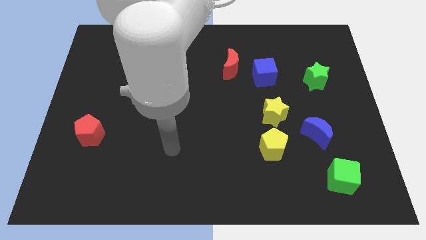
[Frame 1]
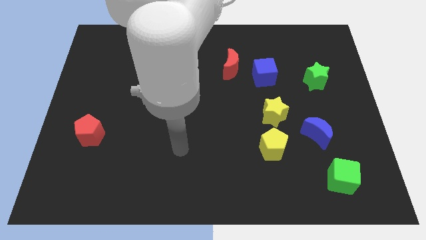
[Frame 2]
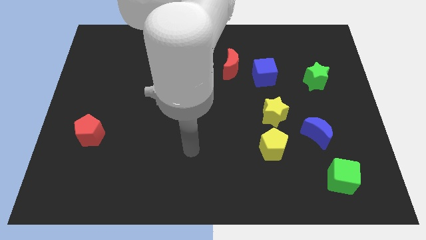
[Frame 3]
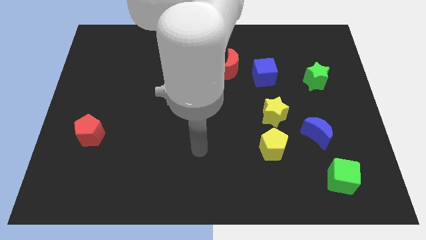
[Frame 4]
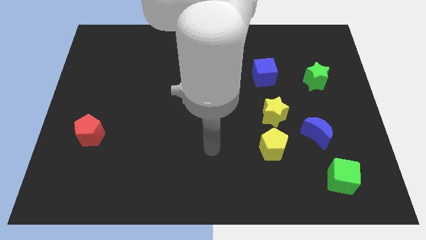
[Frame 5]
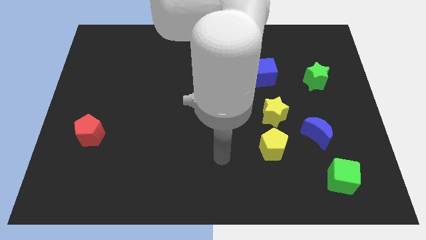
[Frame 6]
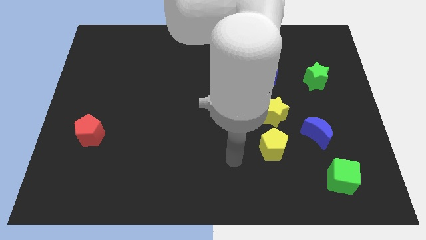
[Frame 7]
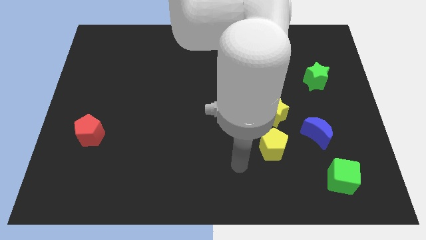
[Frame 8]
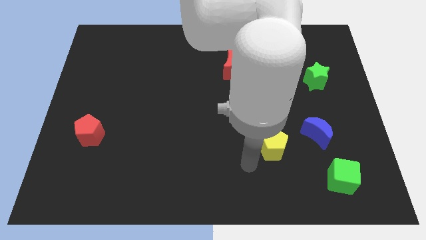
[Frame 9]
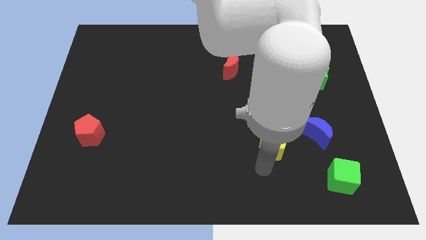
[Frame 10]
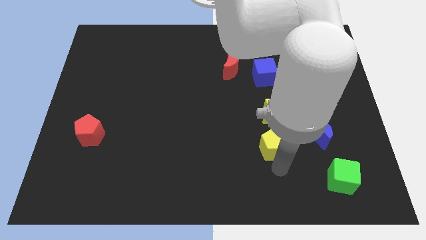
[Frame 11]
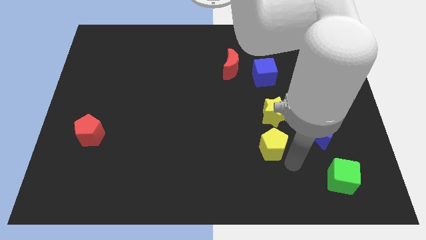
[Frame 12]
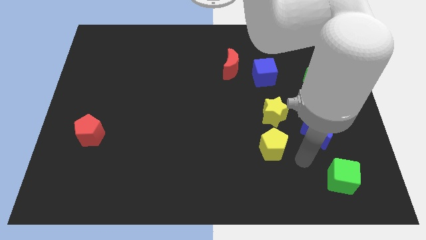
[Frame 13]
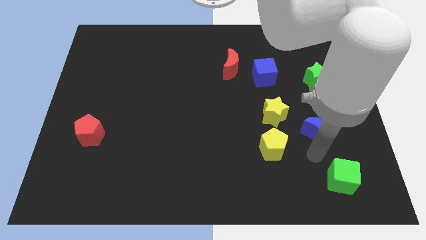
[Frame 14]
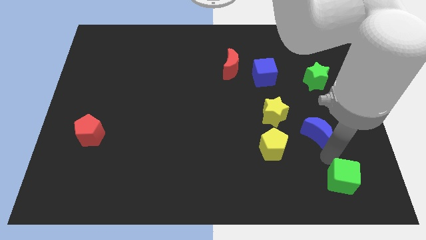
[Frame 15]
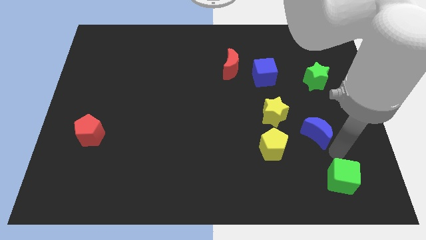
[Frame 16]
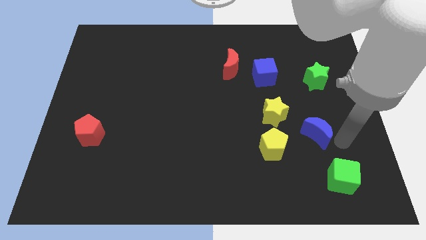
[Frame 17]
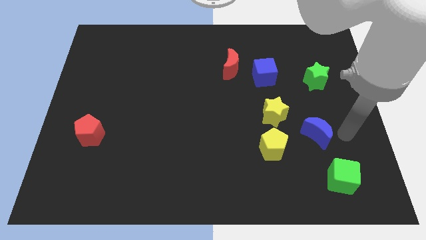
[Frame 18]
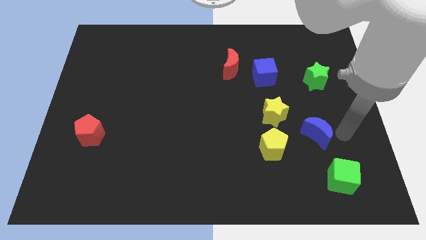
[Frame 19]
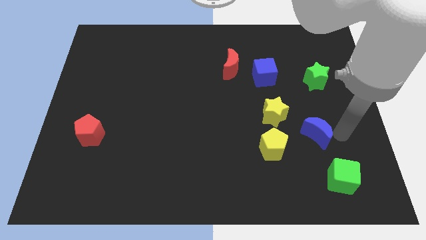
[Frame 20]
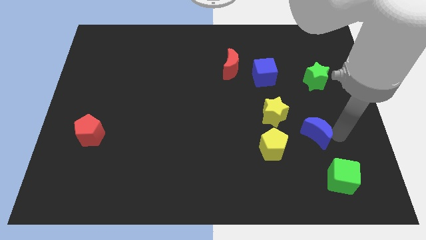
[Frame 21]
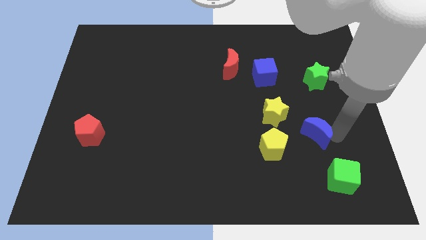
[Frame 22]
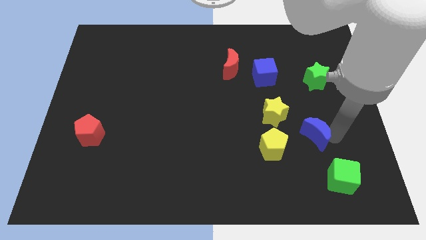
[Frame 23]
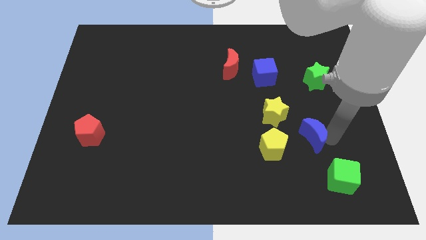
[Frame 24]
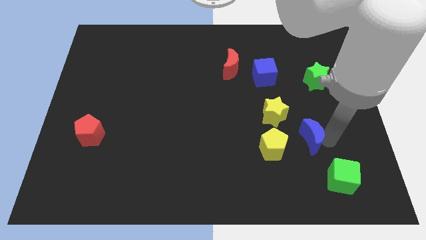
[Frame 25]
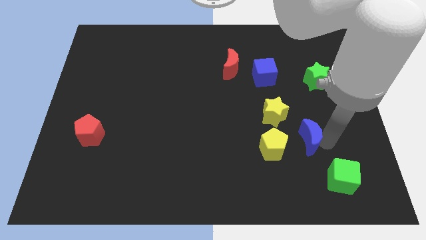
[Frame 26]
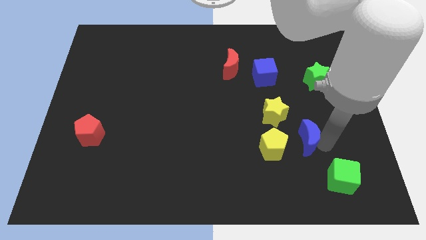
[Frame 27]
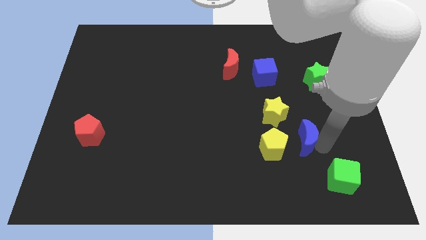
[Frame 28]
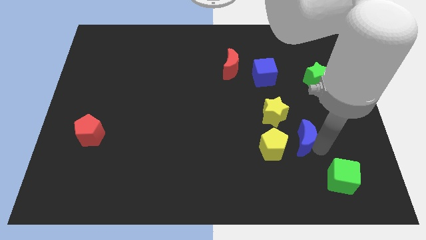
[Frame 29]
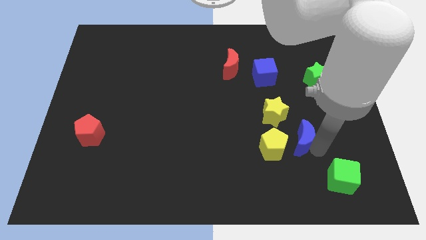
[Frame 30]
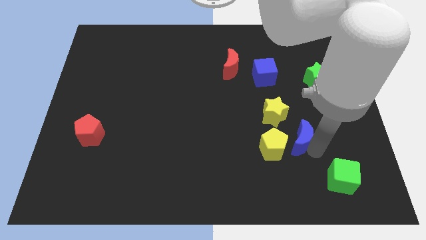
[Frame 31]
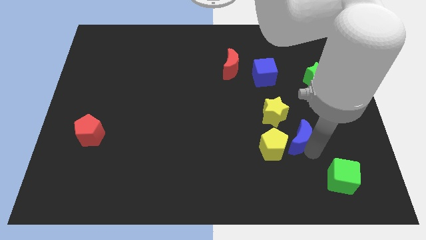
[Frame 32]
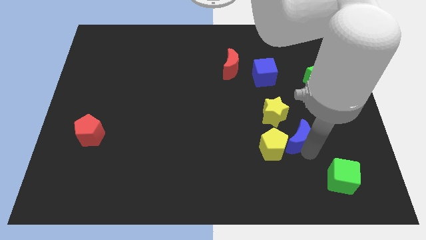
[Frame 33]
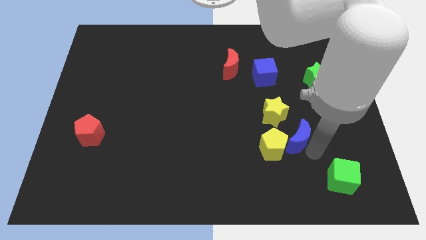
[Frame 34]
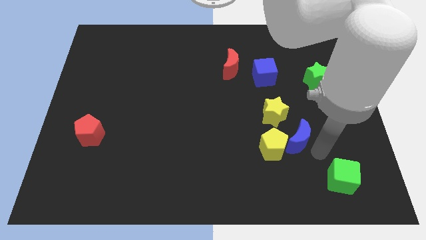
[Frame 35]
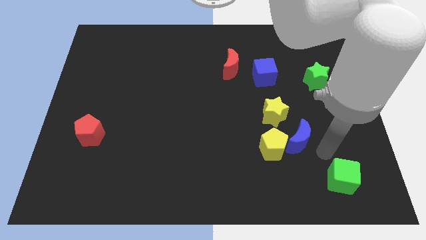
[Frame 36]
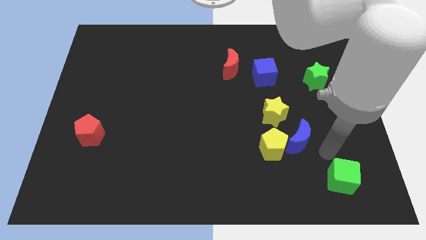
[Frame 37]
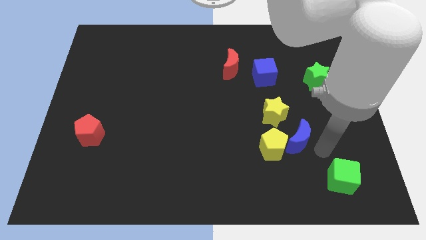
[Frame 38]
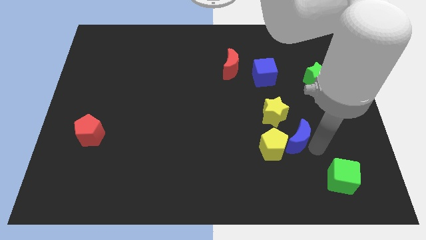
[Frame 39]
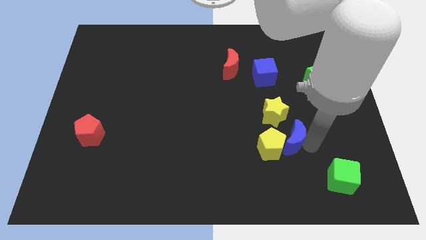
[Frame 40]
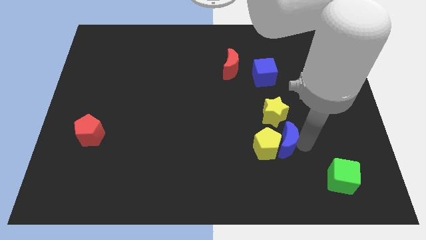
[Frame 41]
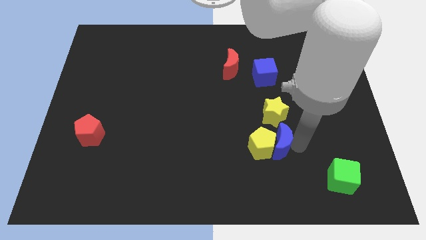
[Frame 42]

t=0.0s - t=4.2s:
move the blue moon slightly to the left

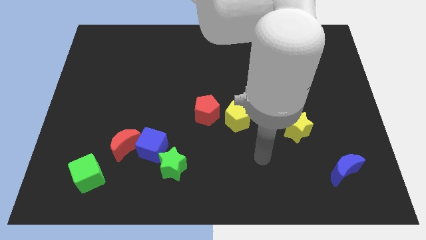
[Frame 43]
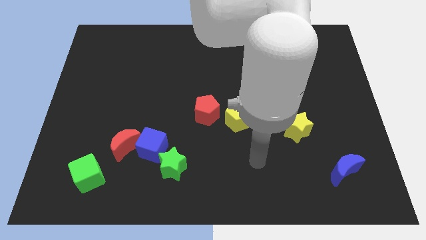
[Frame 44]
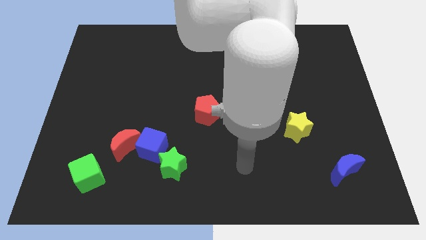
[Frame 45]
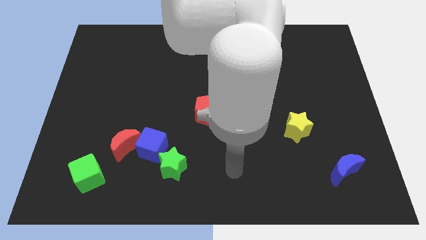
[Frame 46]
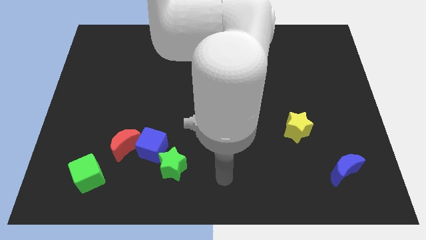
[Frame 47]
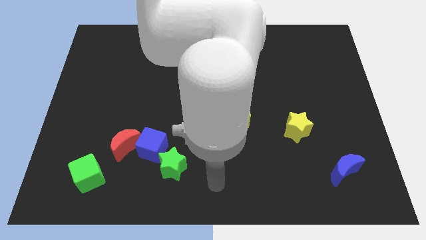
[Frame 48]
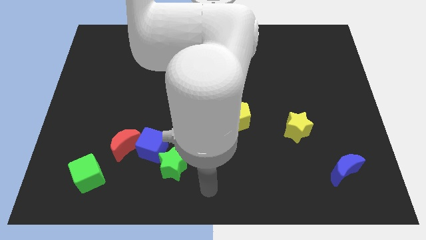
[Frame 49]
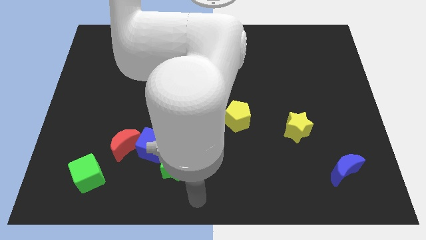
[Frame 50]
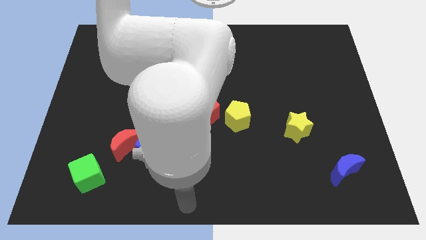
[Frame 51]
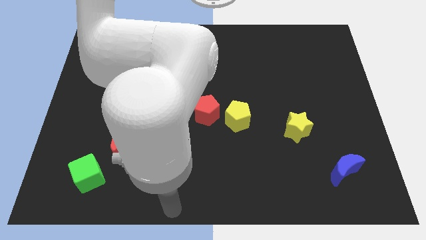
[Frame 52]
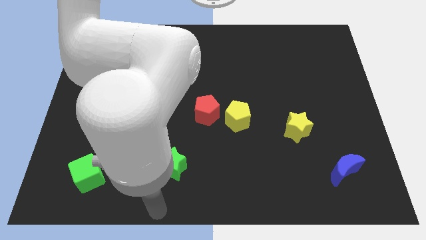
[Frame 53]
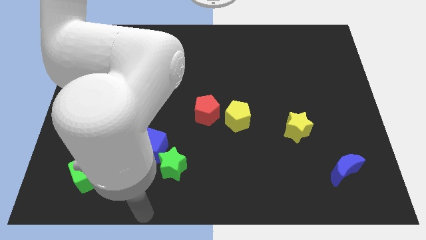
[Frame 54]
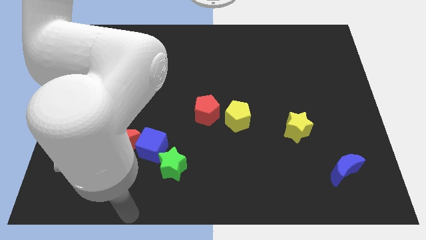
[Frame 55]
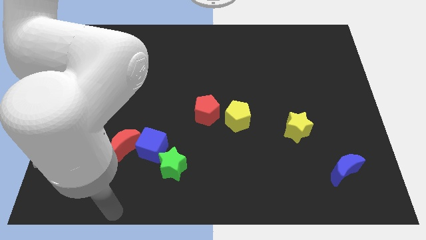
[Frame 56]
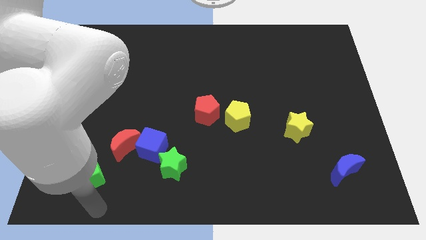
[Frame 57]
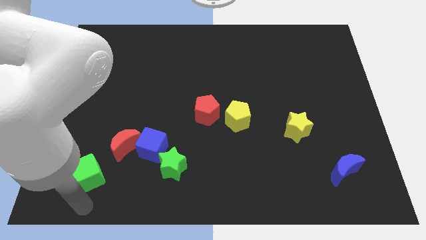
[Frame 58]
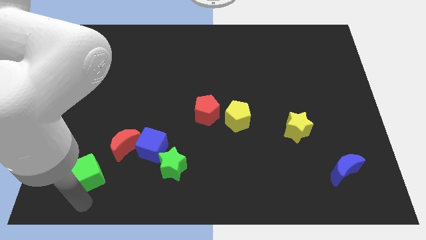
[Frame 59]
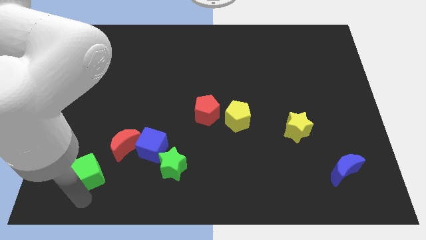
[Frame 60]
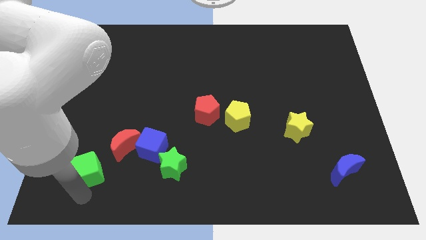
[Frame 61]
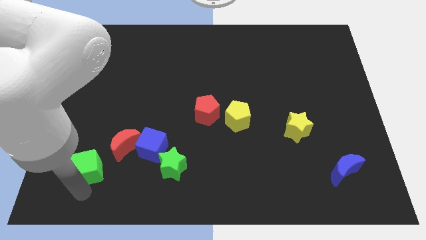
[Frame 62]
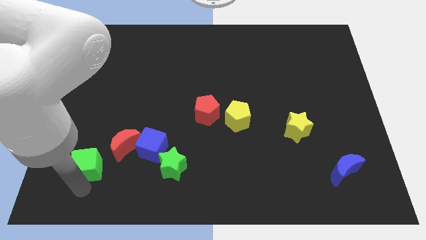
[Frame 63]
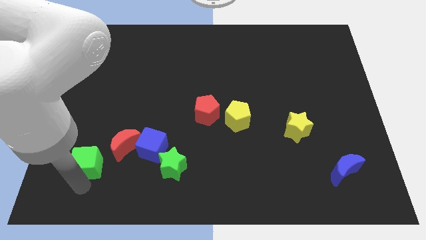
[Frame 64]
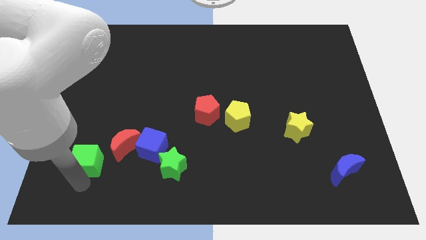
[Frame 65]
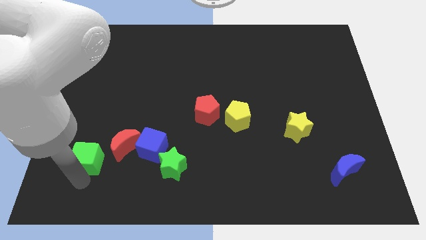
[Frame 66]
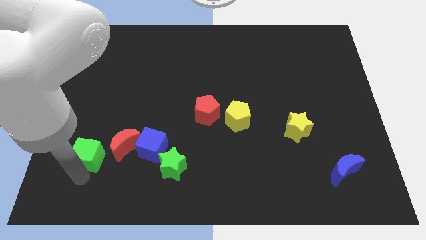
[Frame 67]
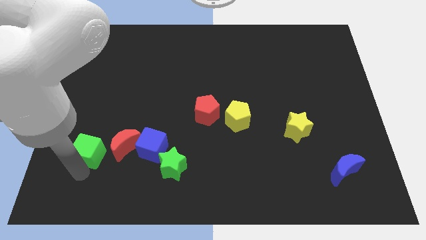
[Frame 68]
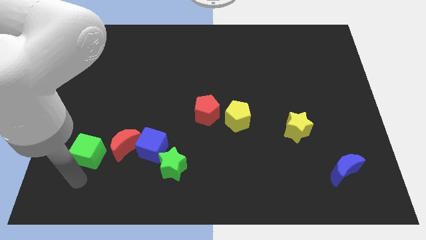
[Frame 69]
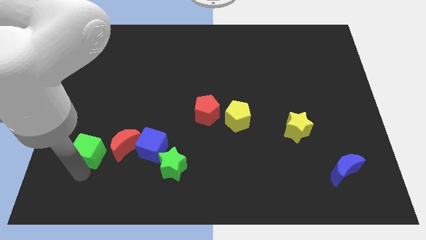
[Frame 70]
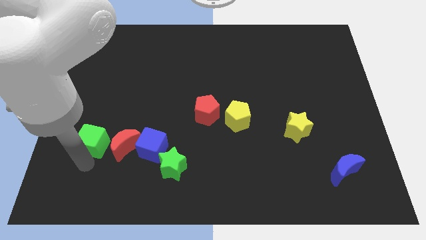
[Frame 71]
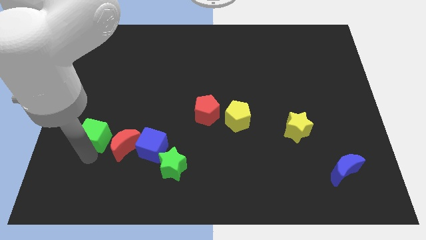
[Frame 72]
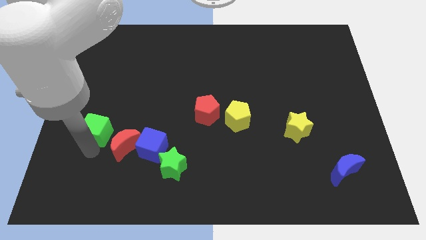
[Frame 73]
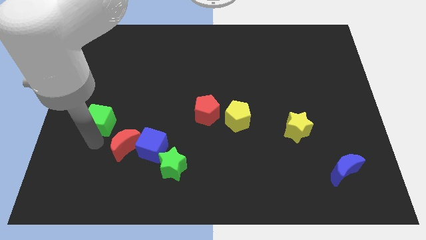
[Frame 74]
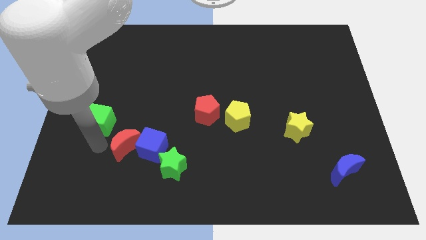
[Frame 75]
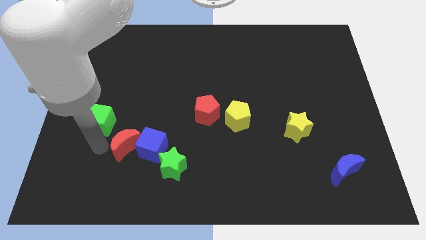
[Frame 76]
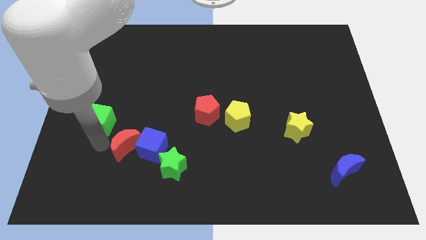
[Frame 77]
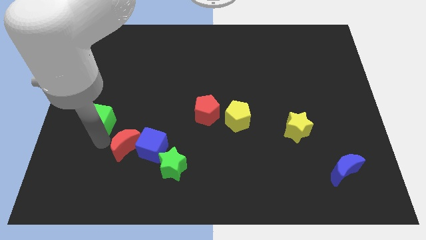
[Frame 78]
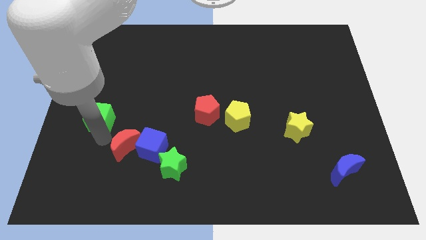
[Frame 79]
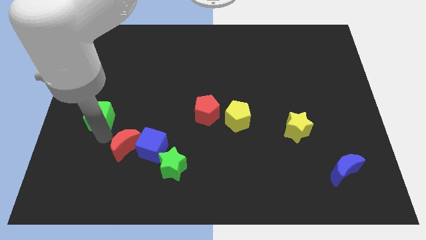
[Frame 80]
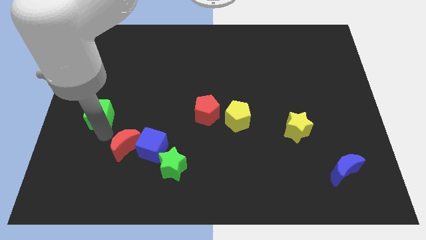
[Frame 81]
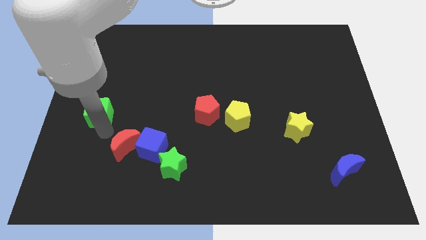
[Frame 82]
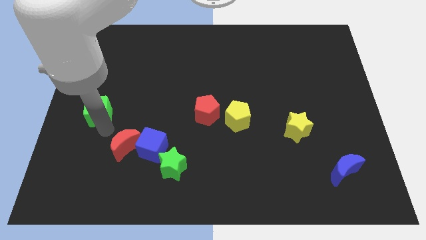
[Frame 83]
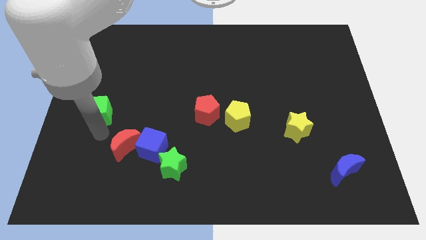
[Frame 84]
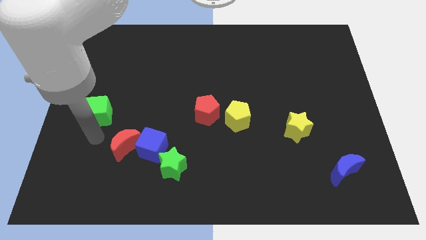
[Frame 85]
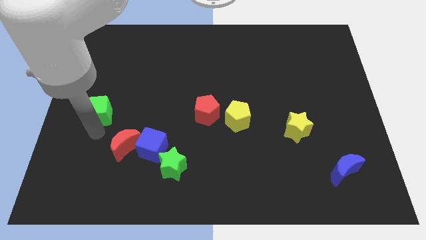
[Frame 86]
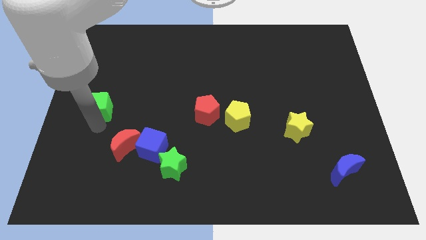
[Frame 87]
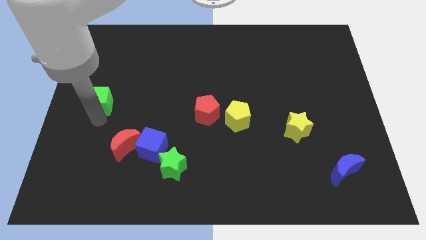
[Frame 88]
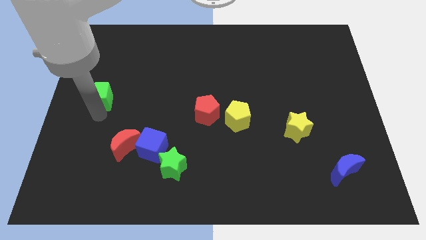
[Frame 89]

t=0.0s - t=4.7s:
push the green cube up
